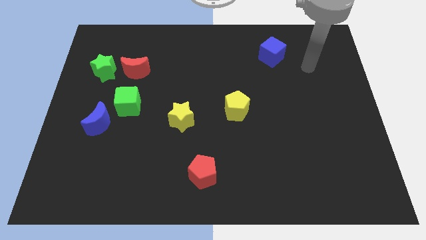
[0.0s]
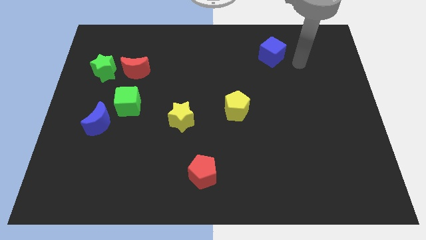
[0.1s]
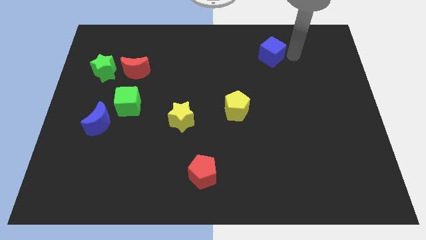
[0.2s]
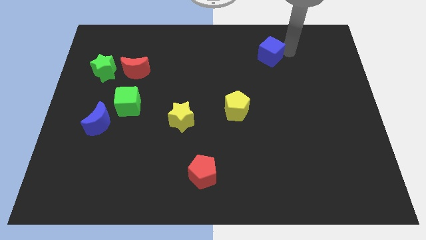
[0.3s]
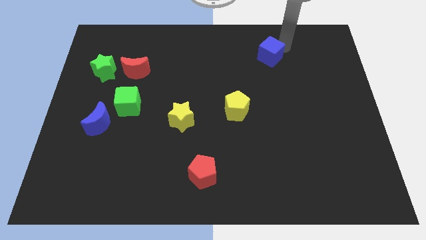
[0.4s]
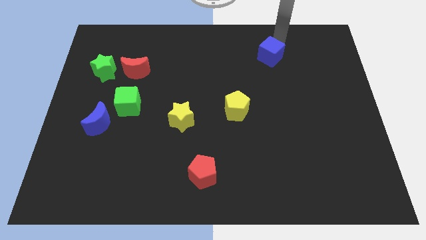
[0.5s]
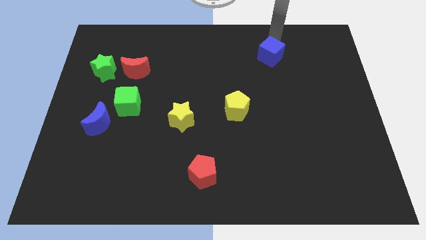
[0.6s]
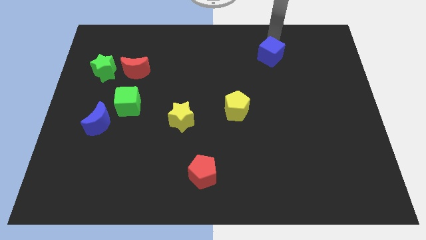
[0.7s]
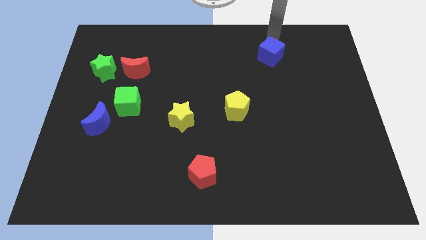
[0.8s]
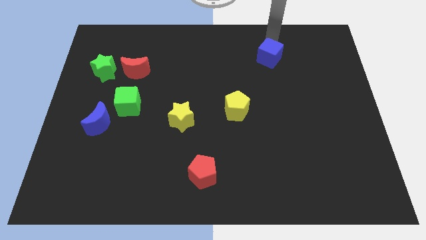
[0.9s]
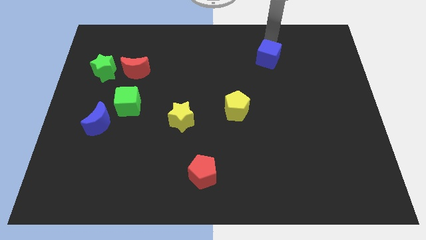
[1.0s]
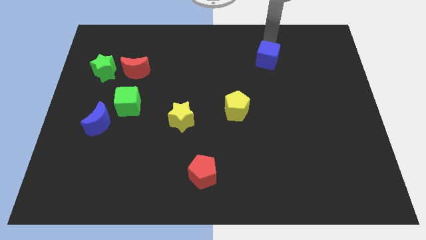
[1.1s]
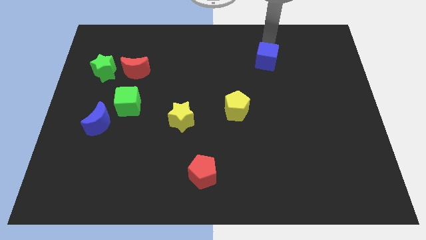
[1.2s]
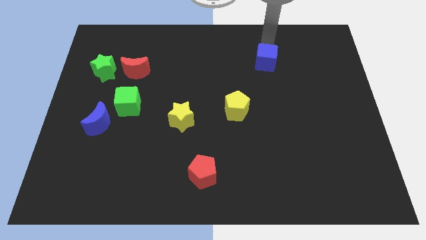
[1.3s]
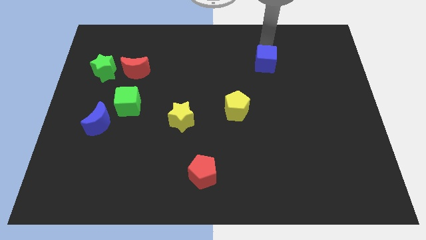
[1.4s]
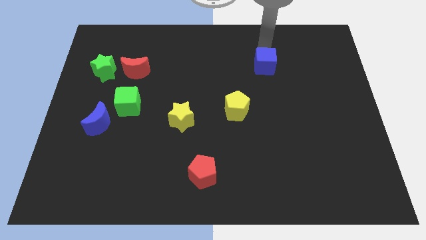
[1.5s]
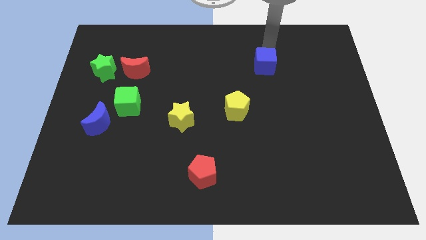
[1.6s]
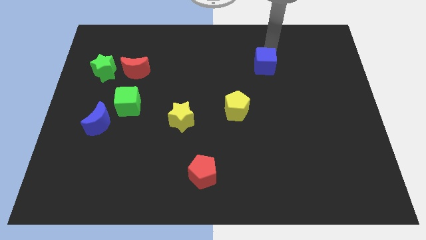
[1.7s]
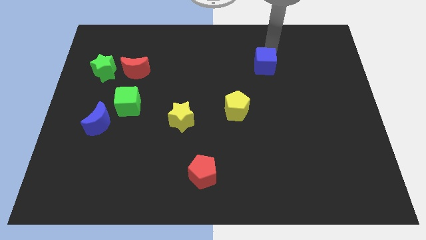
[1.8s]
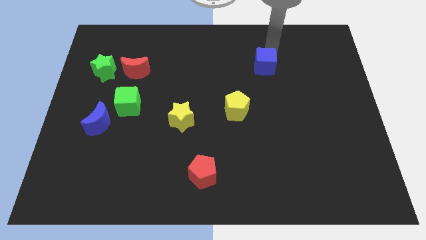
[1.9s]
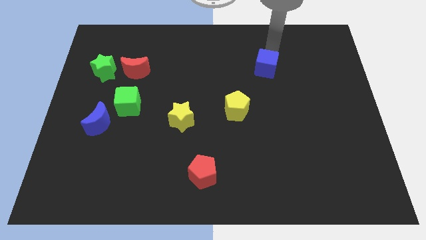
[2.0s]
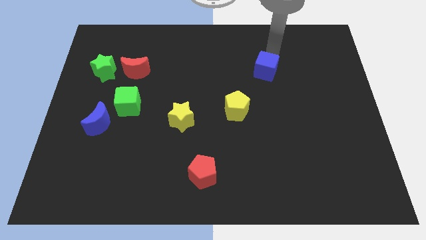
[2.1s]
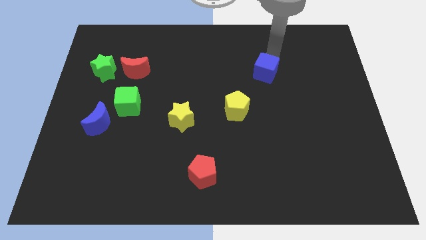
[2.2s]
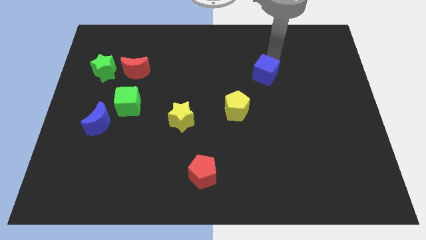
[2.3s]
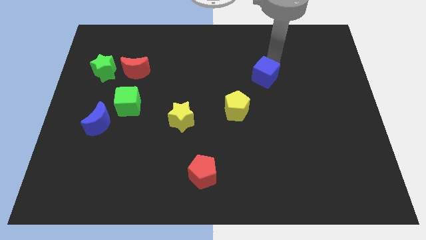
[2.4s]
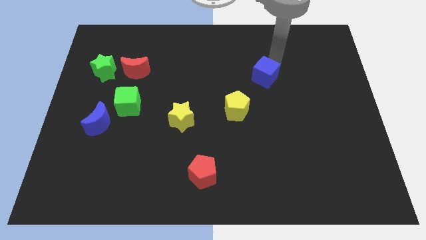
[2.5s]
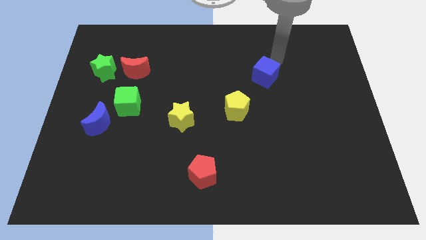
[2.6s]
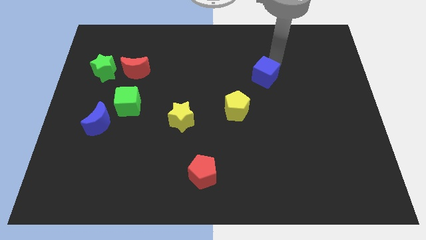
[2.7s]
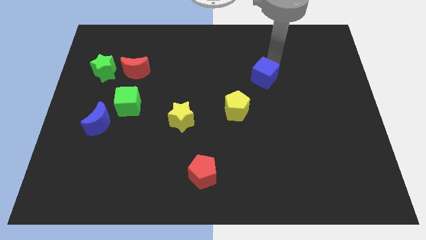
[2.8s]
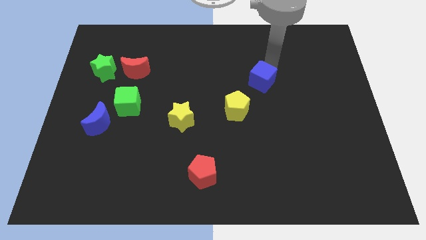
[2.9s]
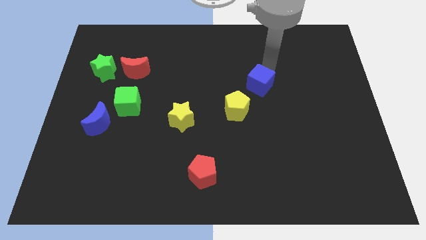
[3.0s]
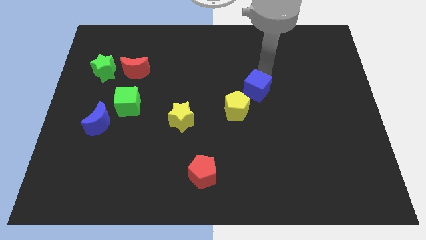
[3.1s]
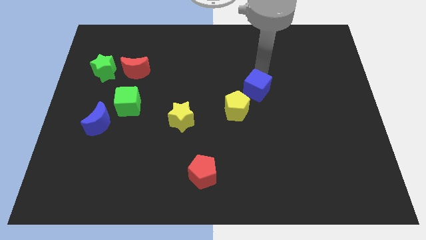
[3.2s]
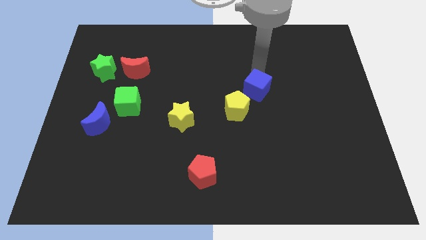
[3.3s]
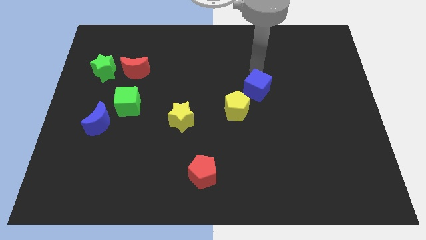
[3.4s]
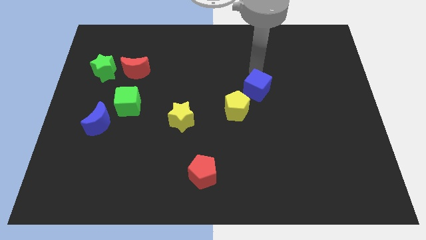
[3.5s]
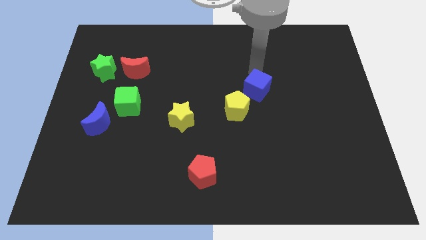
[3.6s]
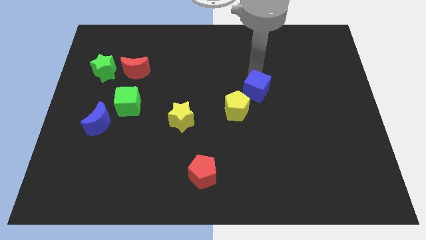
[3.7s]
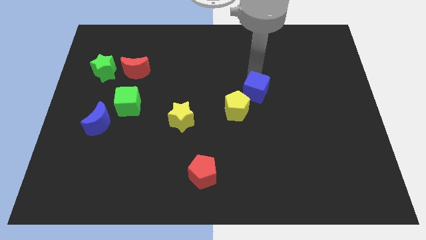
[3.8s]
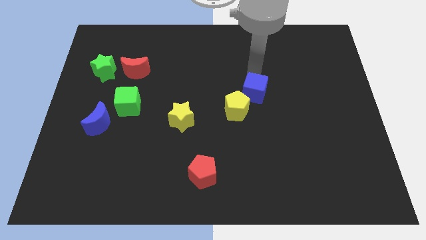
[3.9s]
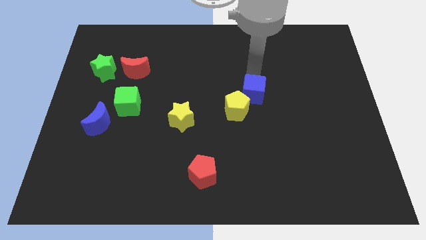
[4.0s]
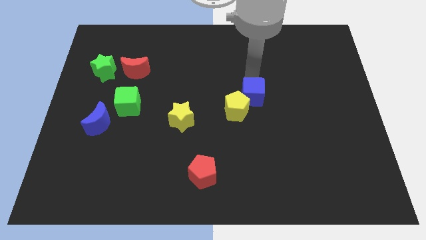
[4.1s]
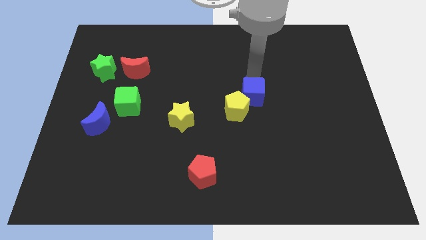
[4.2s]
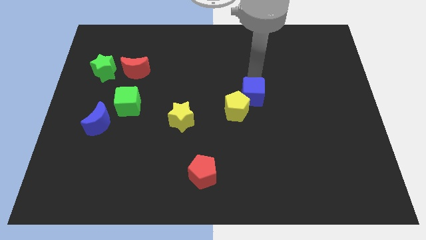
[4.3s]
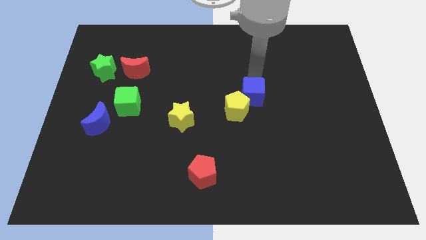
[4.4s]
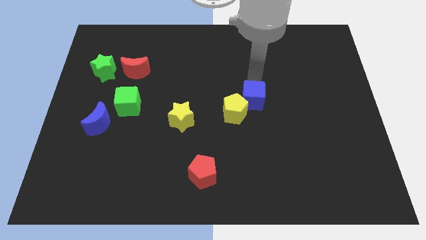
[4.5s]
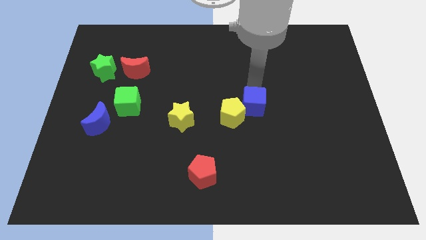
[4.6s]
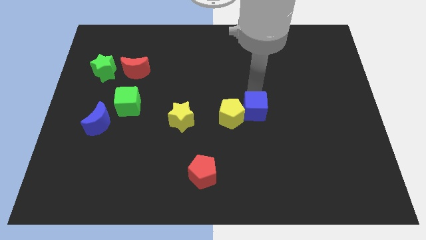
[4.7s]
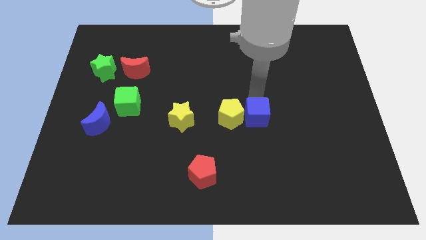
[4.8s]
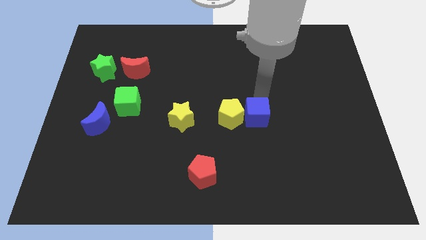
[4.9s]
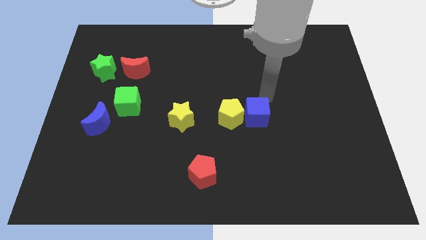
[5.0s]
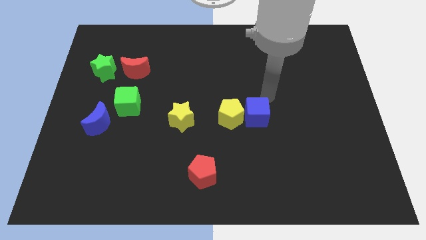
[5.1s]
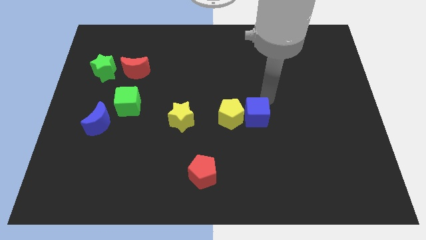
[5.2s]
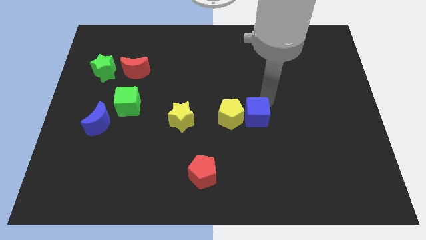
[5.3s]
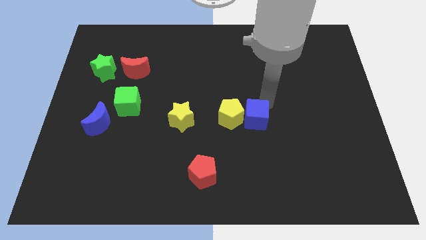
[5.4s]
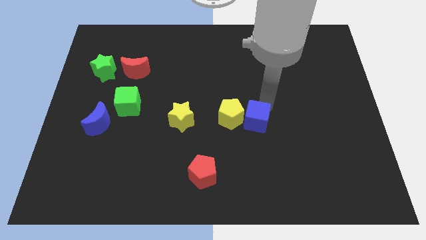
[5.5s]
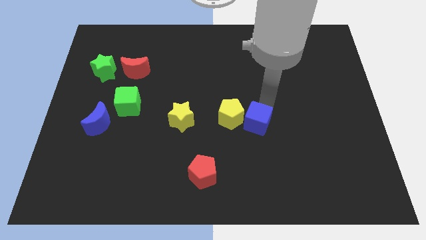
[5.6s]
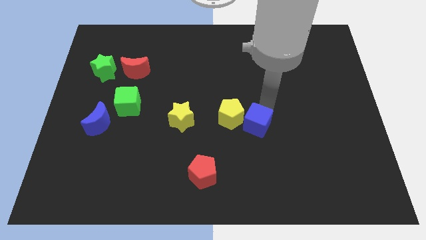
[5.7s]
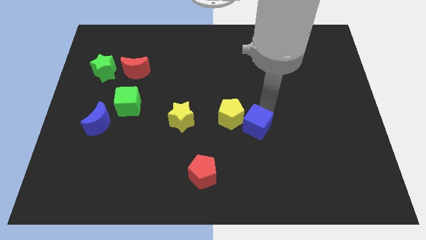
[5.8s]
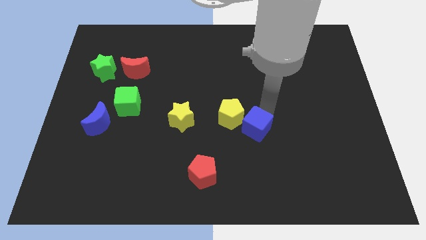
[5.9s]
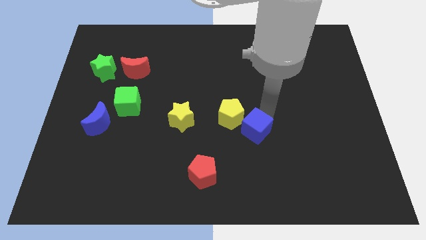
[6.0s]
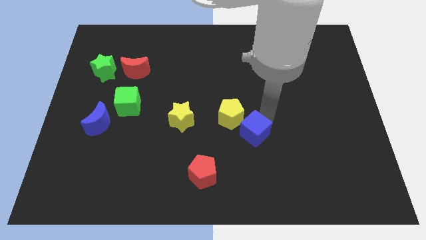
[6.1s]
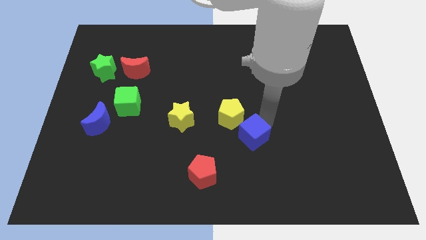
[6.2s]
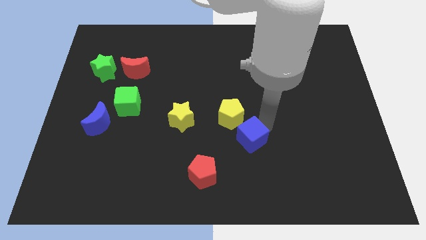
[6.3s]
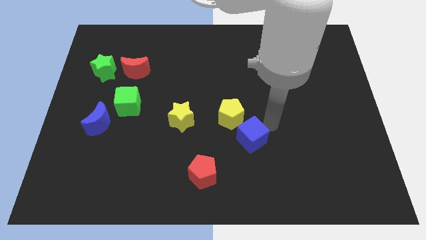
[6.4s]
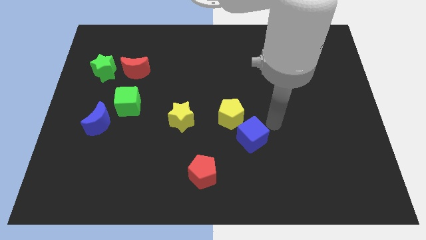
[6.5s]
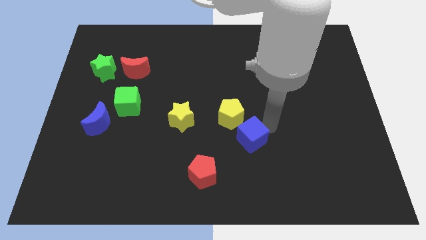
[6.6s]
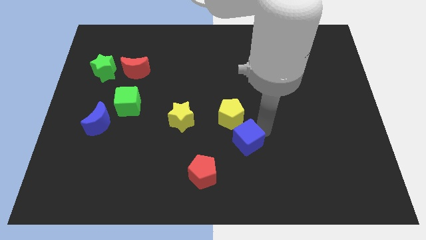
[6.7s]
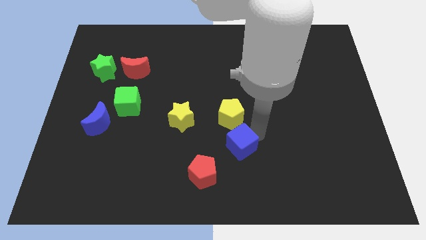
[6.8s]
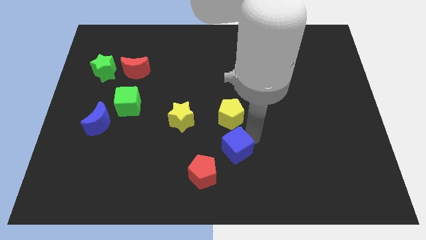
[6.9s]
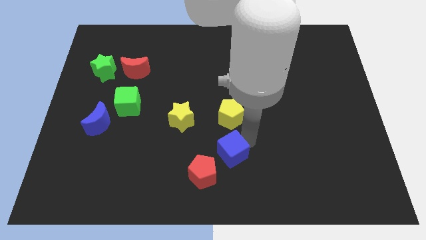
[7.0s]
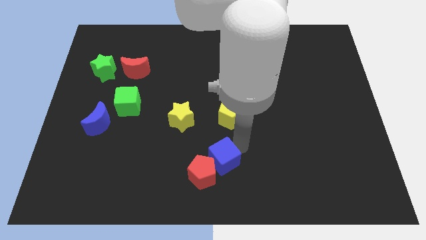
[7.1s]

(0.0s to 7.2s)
put the blue cube towards the red pentagon
